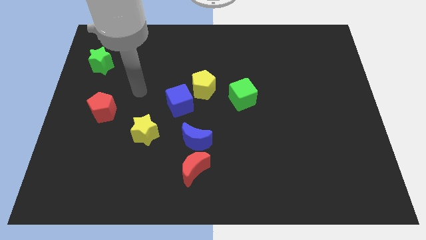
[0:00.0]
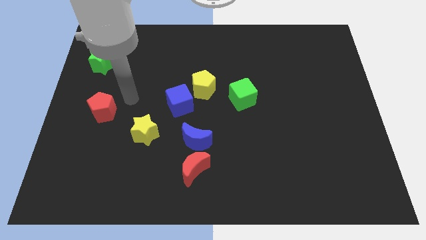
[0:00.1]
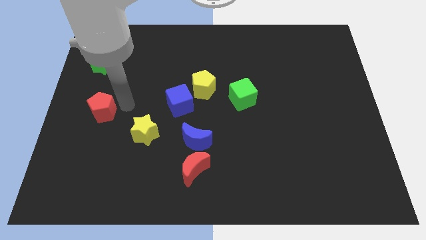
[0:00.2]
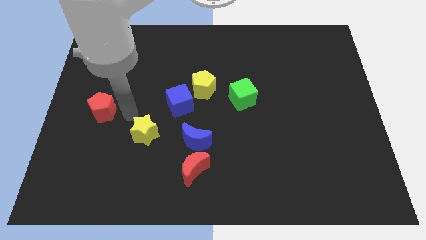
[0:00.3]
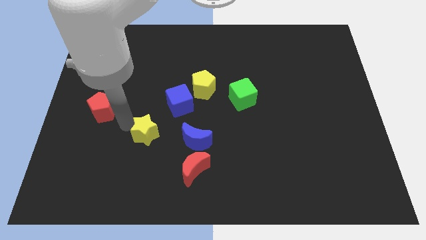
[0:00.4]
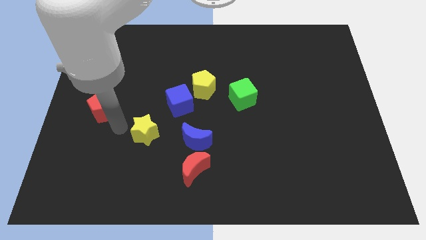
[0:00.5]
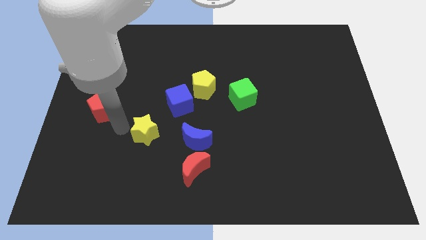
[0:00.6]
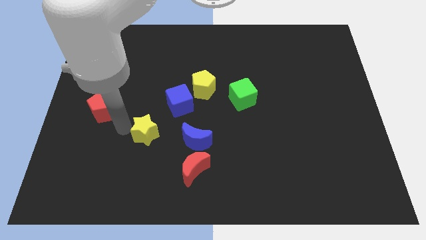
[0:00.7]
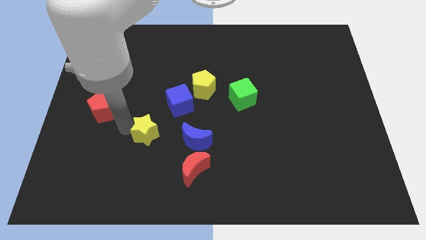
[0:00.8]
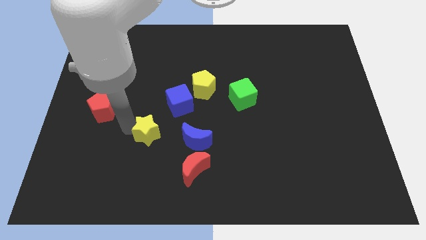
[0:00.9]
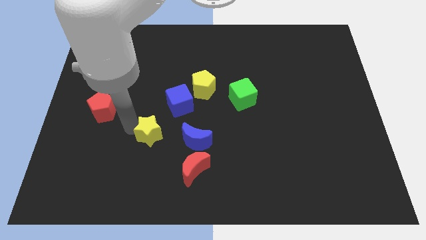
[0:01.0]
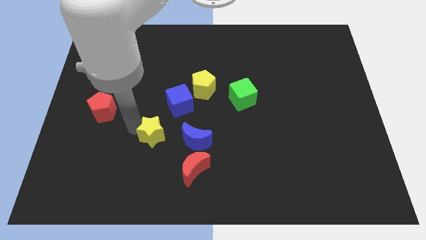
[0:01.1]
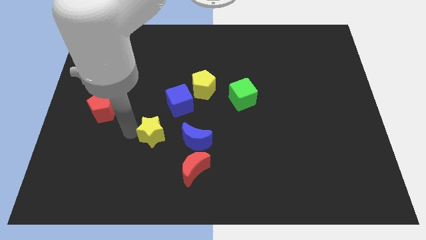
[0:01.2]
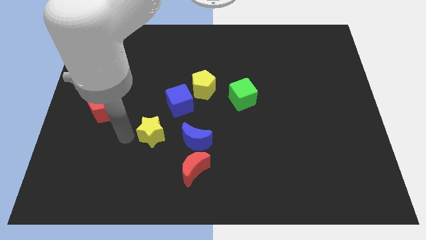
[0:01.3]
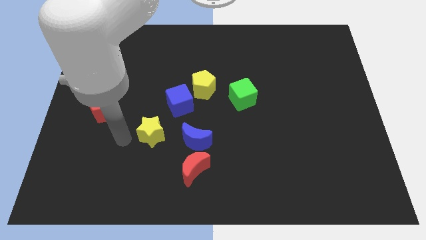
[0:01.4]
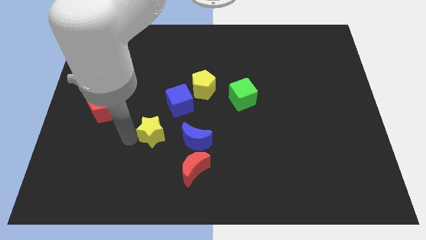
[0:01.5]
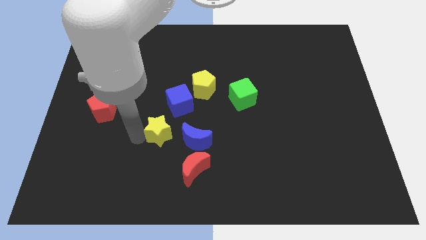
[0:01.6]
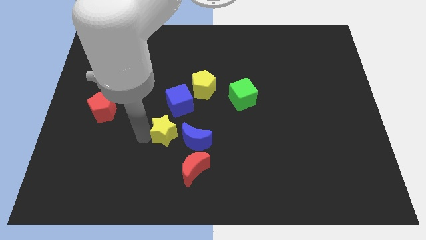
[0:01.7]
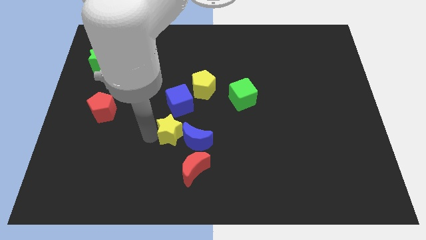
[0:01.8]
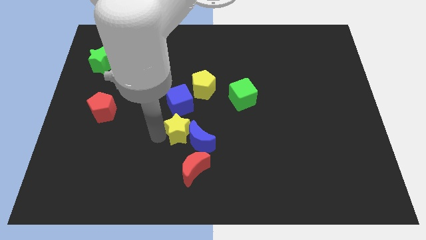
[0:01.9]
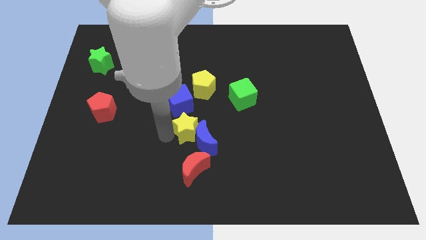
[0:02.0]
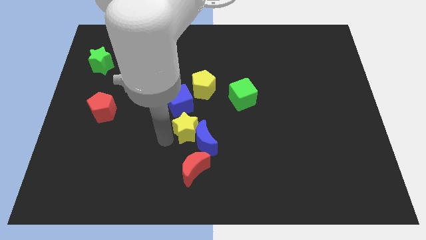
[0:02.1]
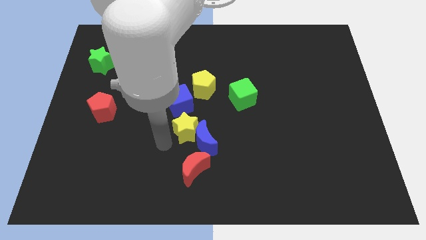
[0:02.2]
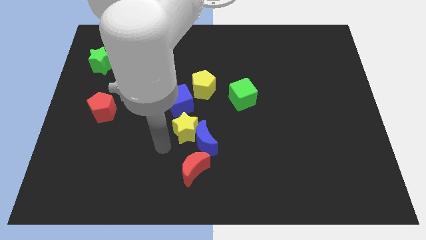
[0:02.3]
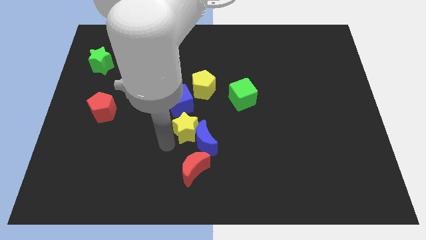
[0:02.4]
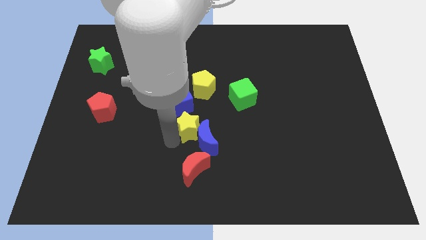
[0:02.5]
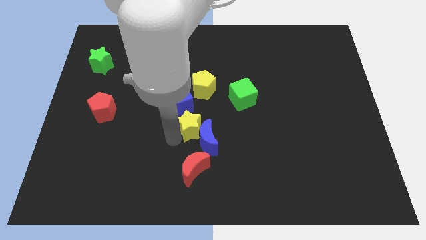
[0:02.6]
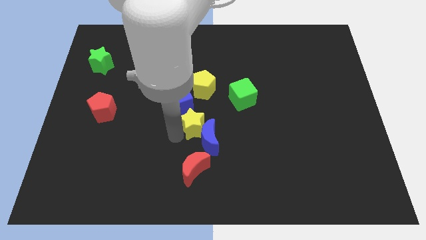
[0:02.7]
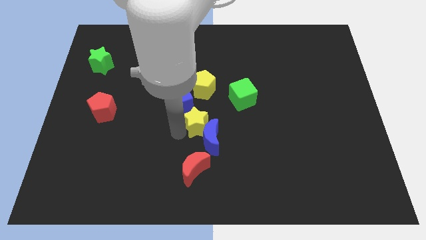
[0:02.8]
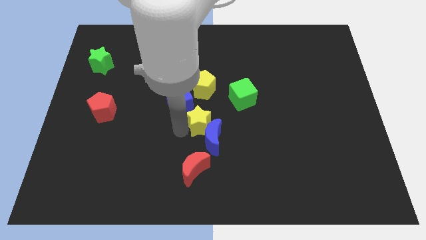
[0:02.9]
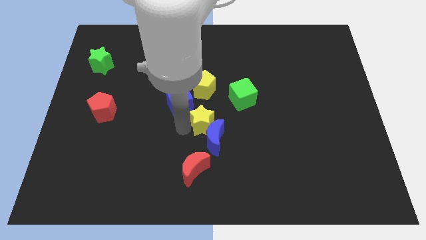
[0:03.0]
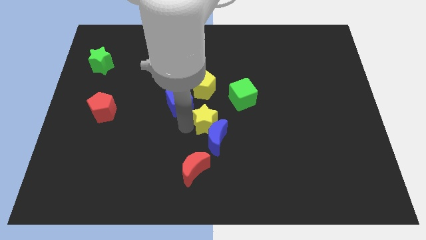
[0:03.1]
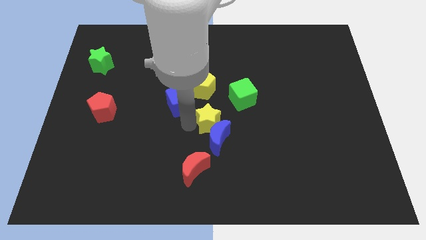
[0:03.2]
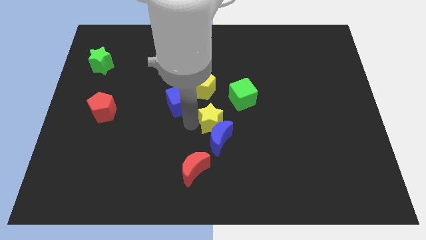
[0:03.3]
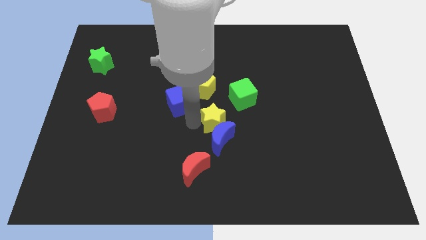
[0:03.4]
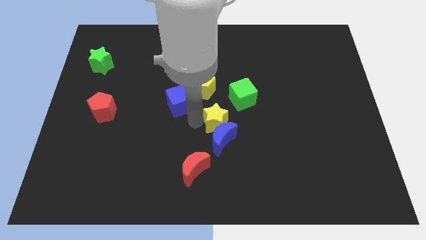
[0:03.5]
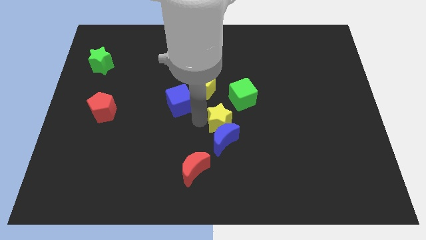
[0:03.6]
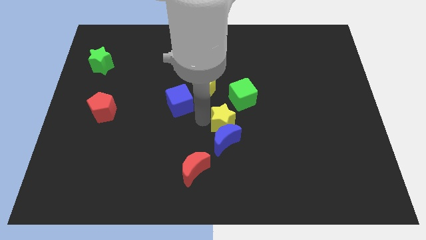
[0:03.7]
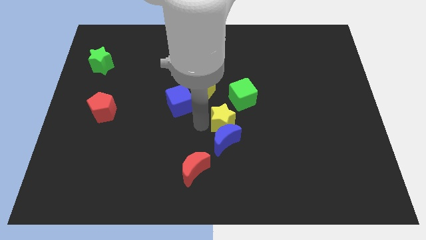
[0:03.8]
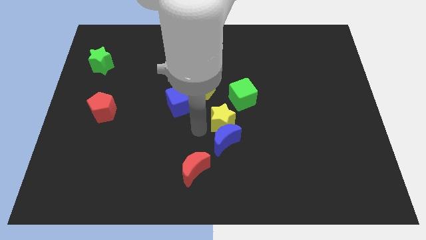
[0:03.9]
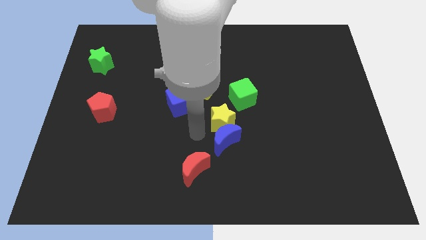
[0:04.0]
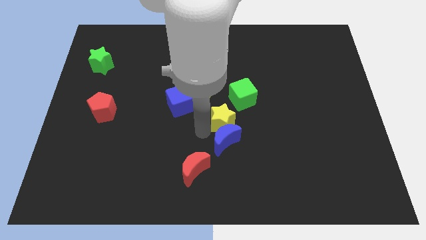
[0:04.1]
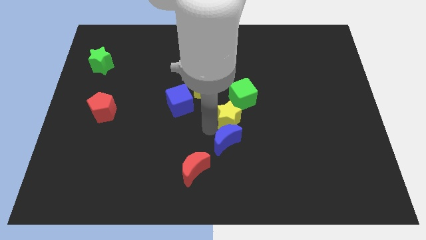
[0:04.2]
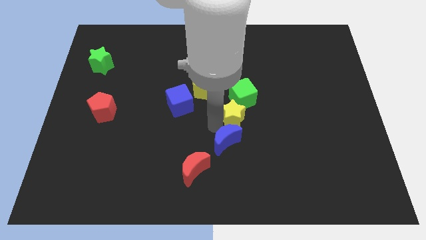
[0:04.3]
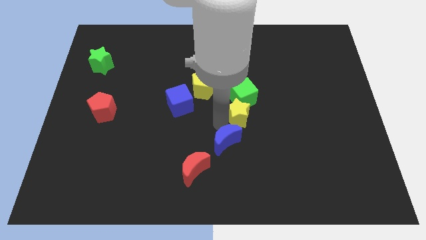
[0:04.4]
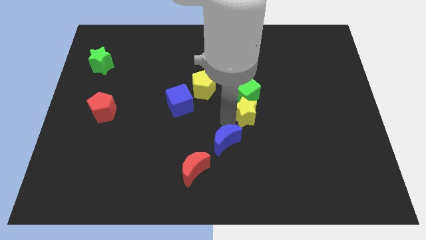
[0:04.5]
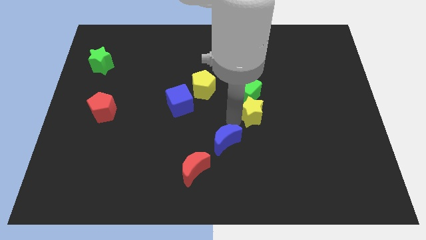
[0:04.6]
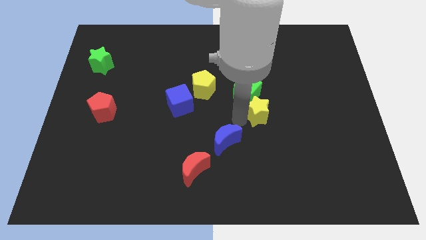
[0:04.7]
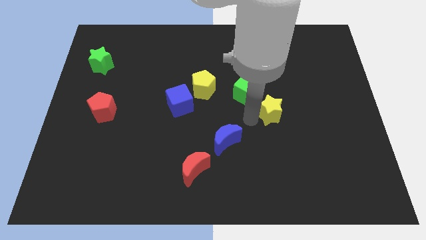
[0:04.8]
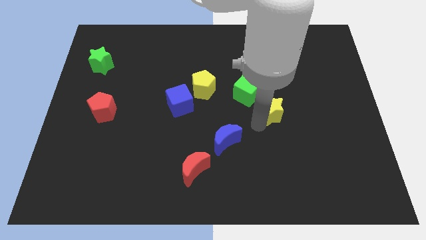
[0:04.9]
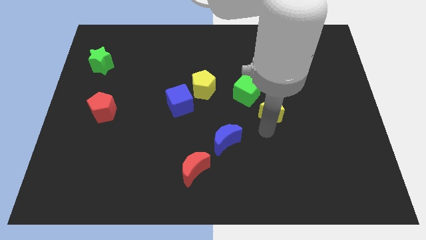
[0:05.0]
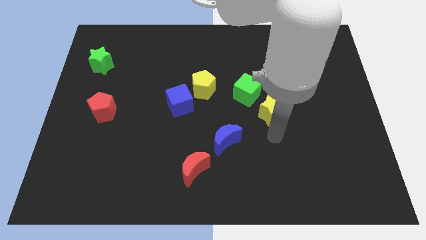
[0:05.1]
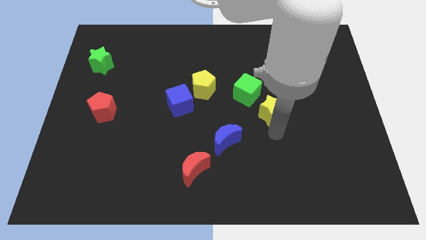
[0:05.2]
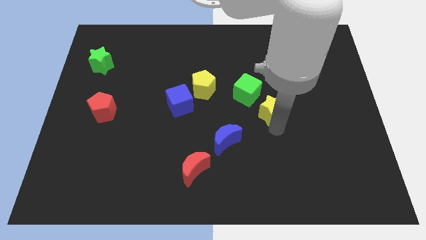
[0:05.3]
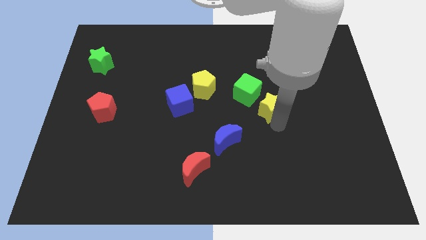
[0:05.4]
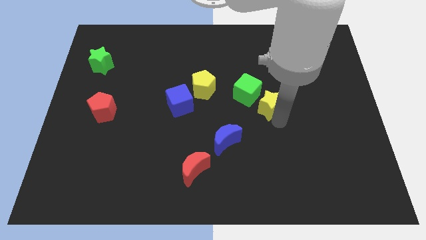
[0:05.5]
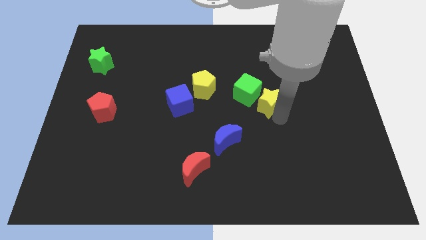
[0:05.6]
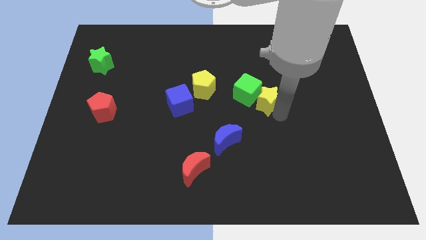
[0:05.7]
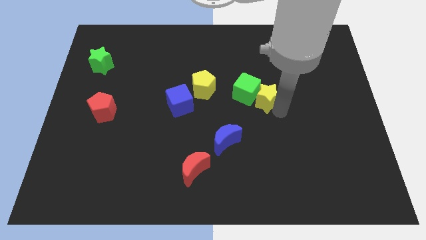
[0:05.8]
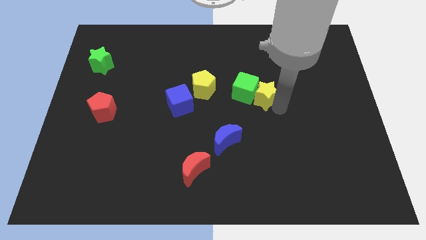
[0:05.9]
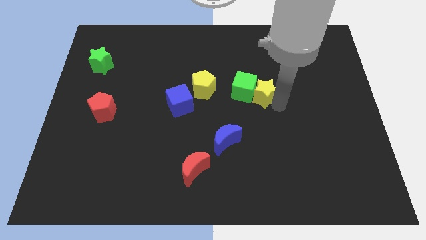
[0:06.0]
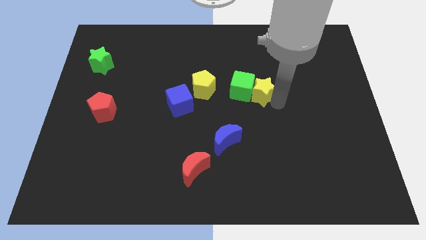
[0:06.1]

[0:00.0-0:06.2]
move the yellow star to the top right side of the green cube

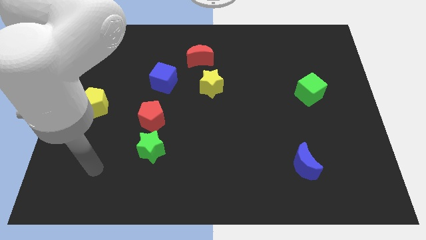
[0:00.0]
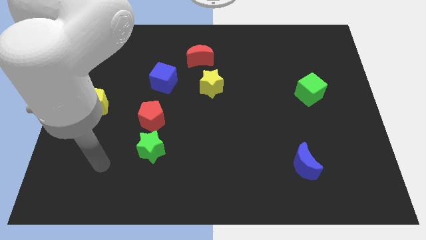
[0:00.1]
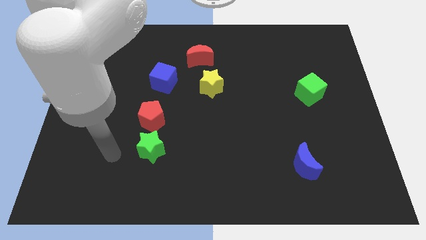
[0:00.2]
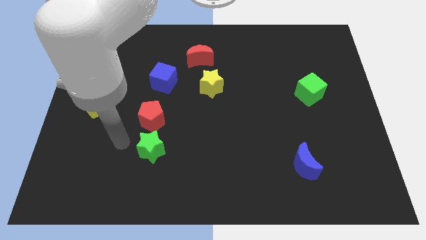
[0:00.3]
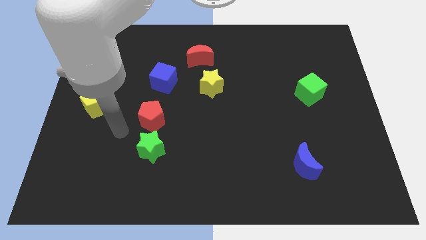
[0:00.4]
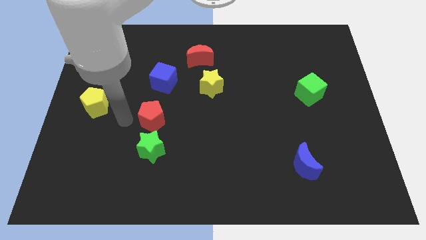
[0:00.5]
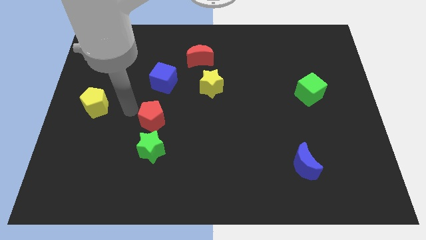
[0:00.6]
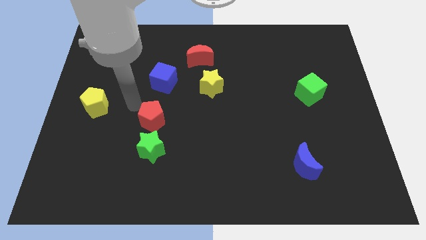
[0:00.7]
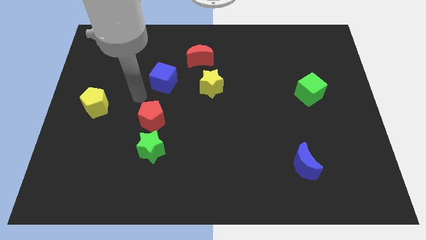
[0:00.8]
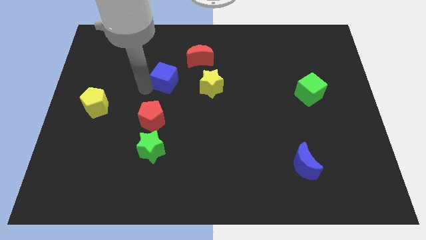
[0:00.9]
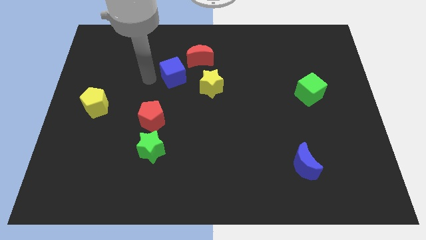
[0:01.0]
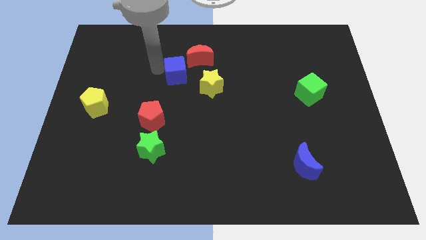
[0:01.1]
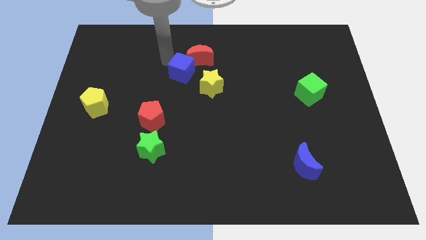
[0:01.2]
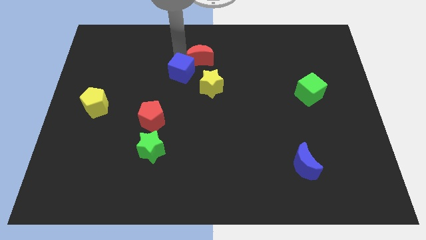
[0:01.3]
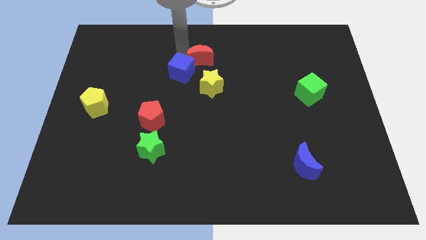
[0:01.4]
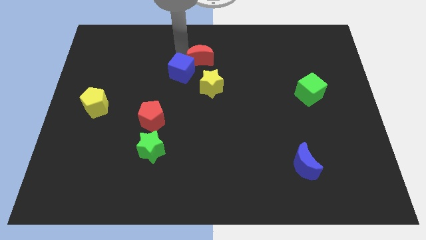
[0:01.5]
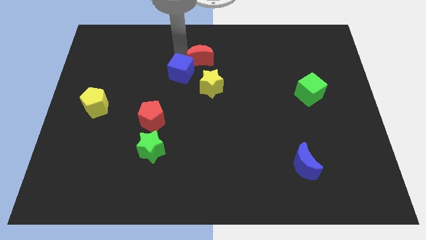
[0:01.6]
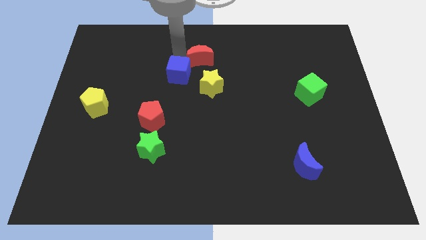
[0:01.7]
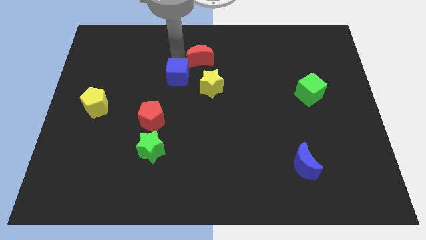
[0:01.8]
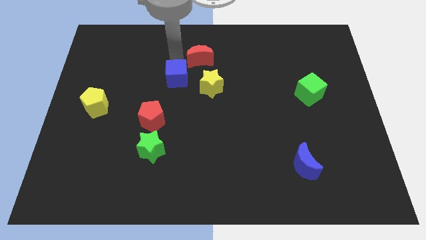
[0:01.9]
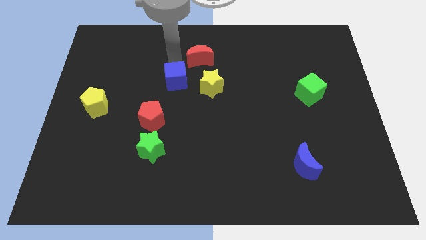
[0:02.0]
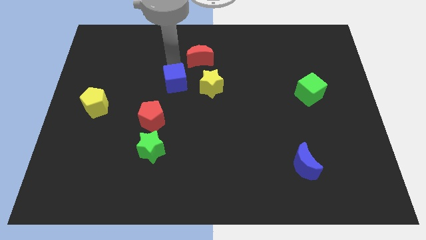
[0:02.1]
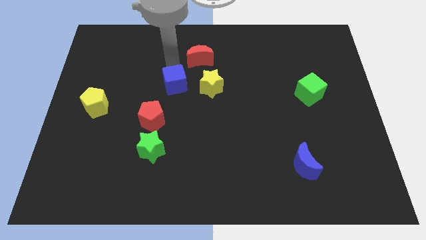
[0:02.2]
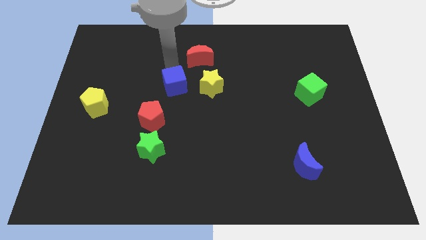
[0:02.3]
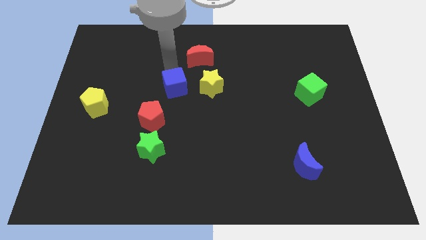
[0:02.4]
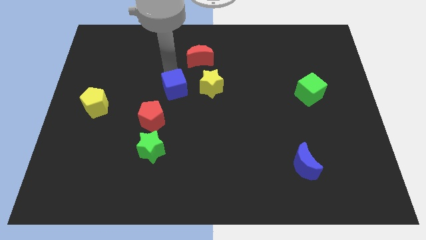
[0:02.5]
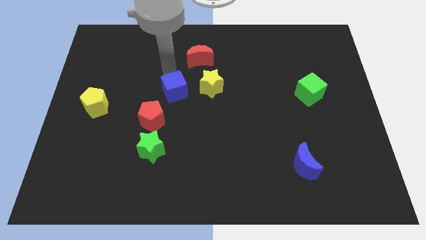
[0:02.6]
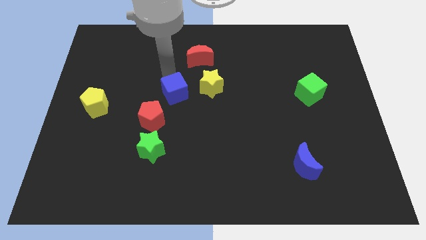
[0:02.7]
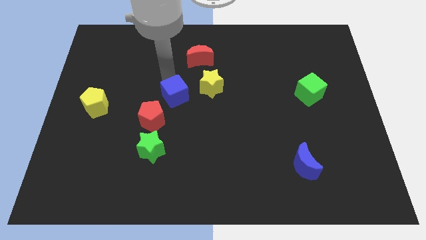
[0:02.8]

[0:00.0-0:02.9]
push the blue cube diagonally down and to the left of the yellow star
